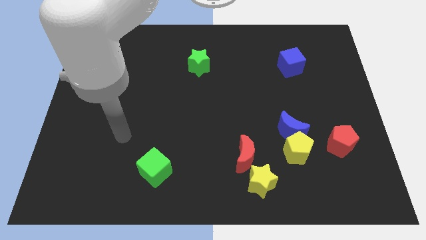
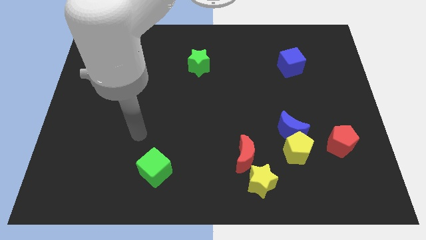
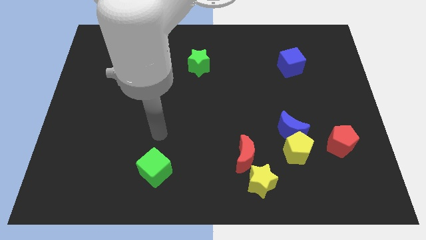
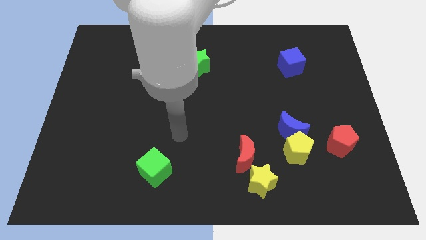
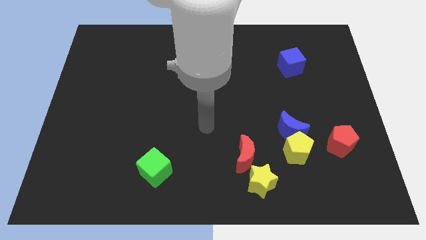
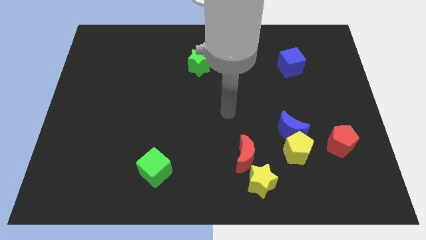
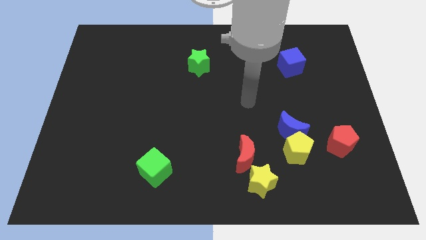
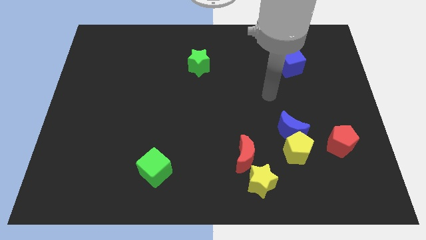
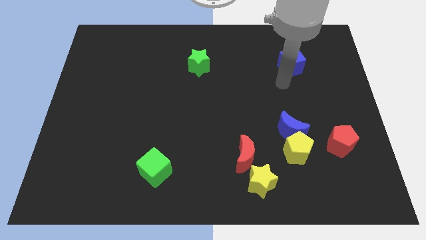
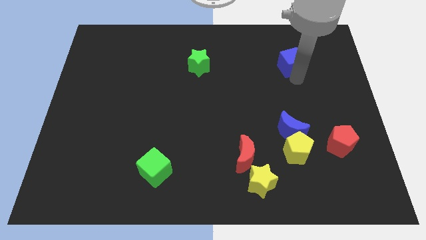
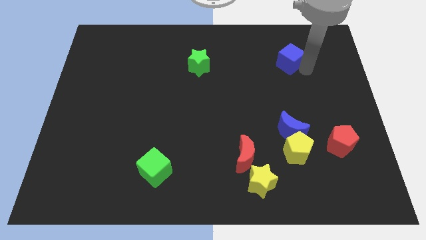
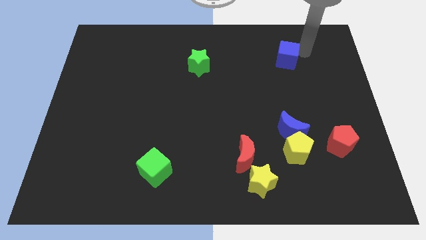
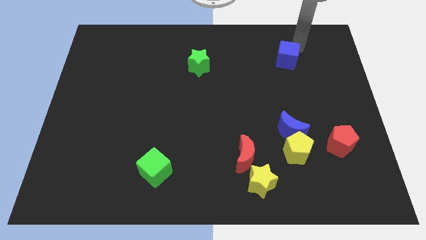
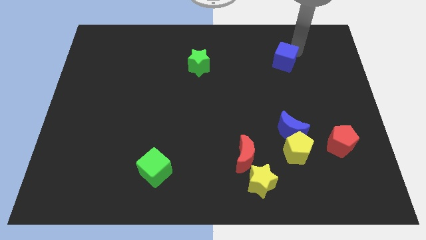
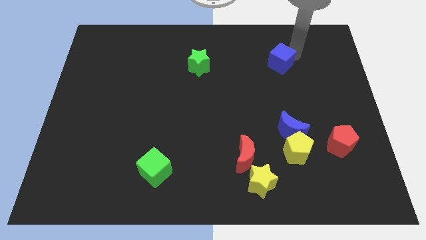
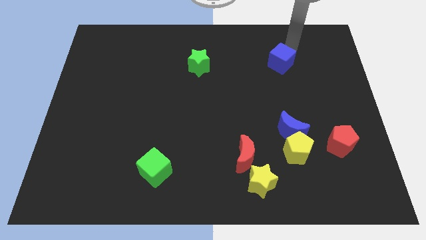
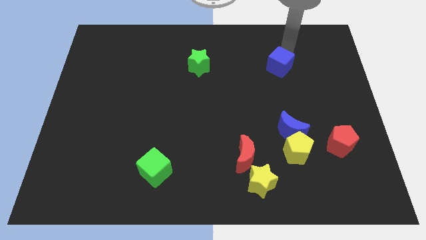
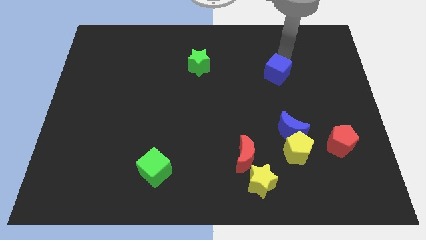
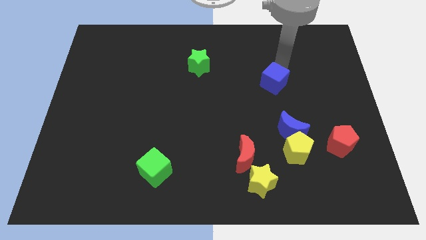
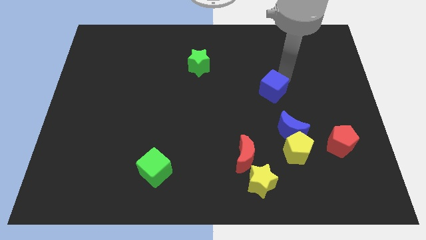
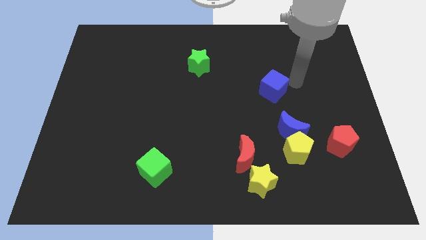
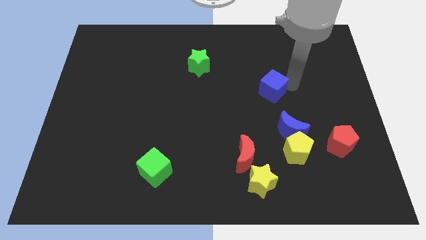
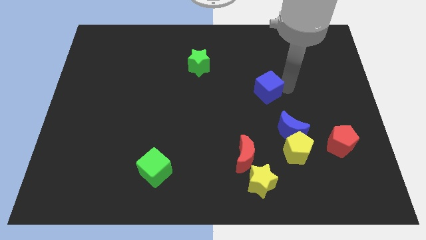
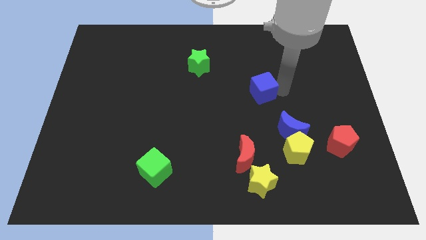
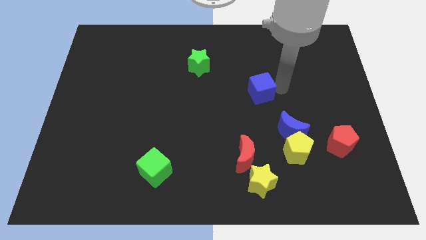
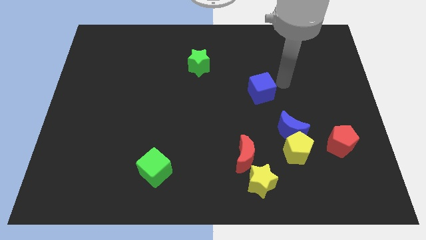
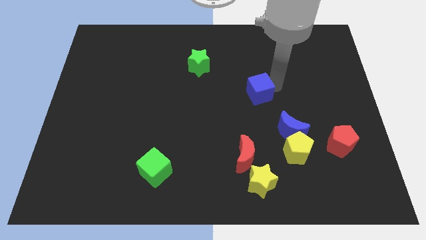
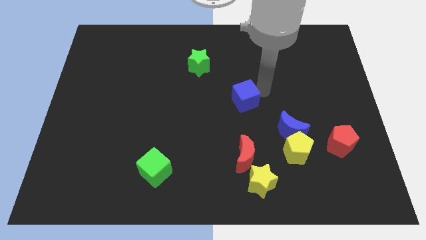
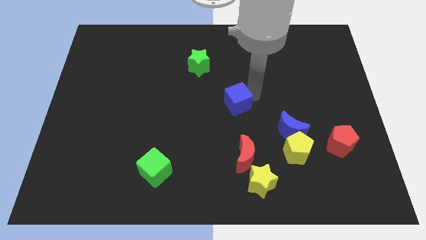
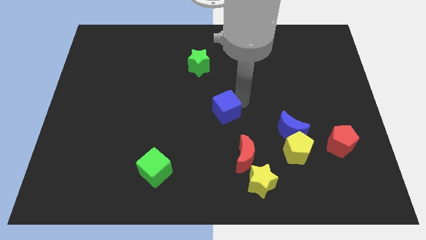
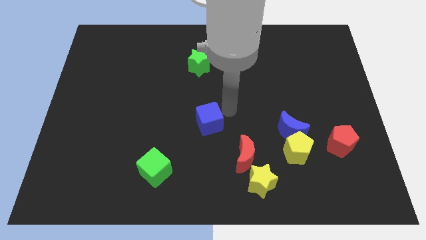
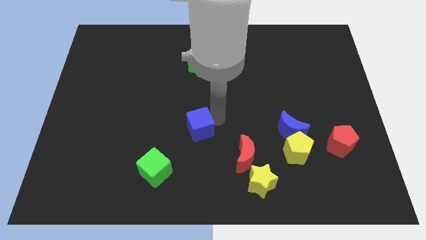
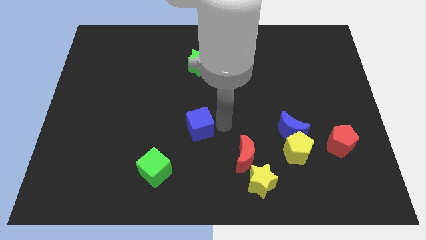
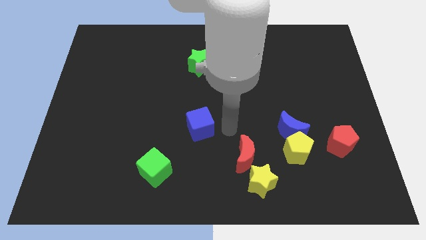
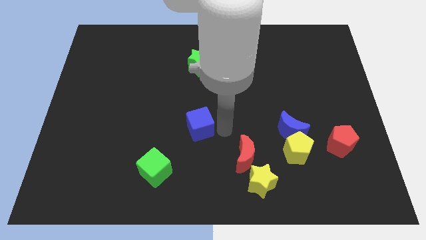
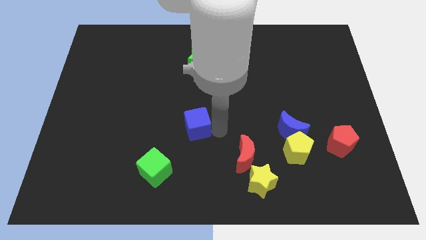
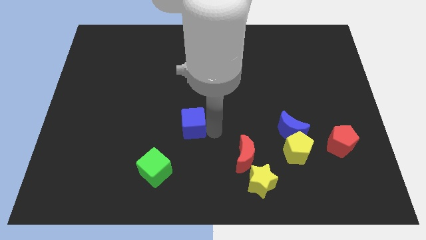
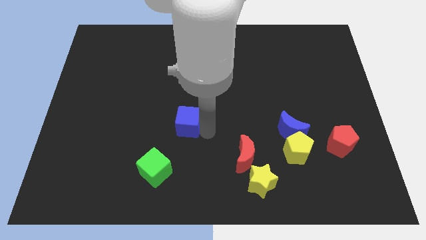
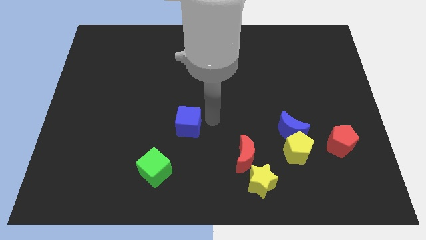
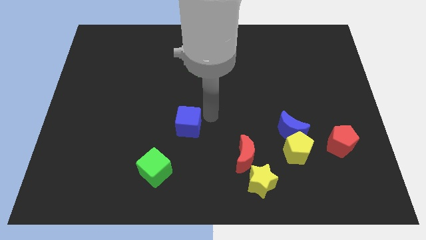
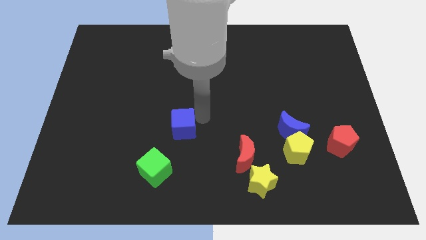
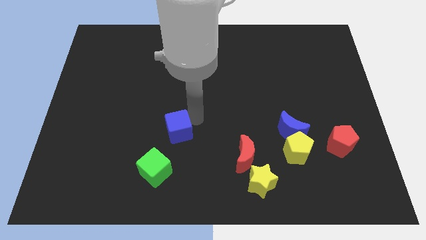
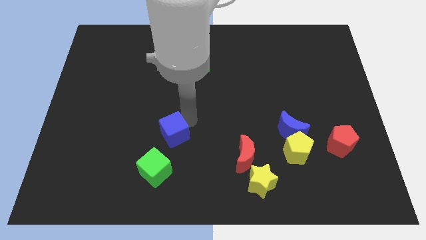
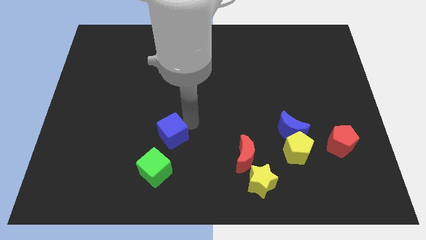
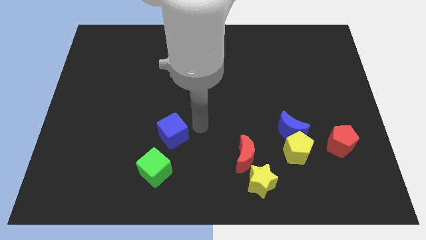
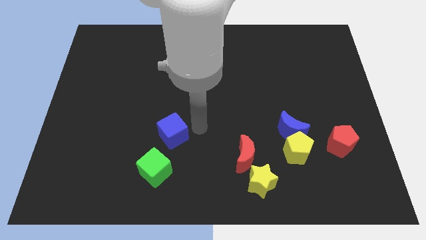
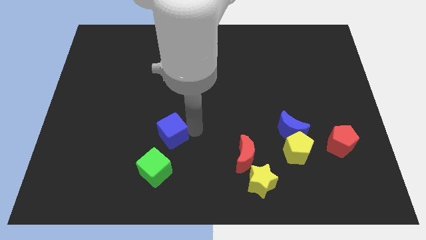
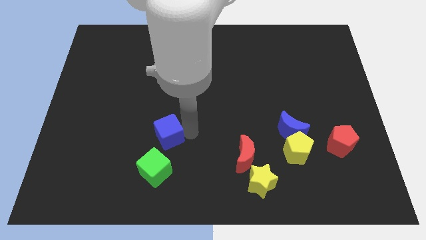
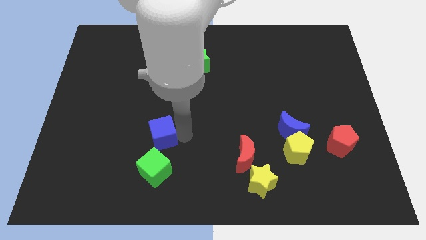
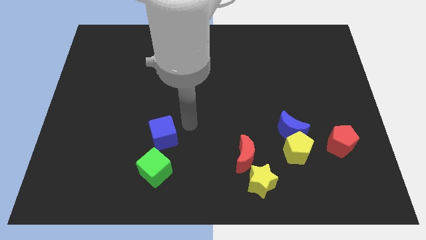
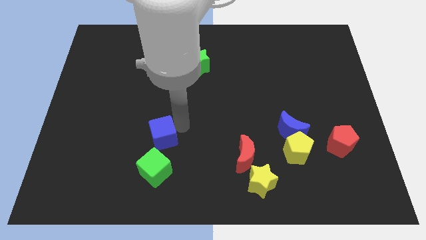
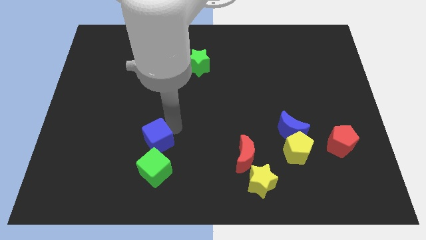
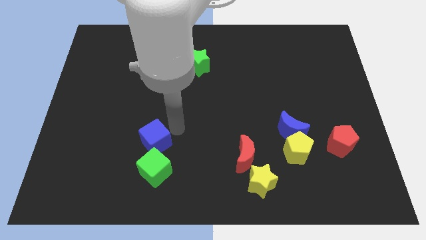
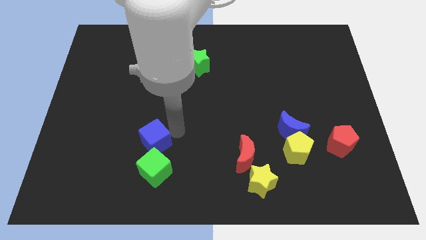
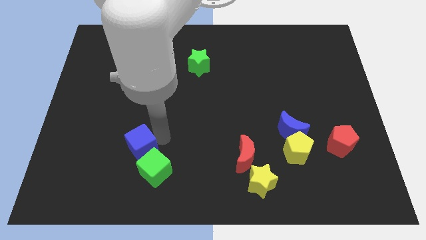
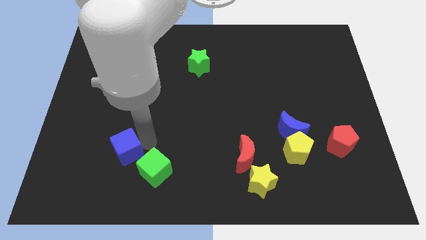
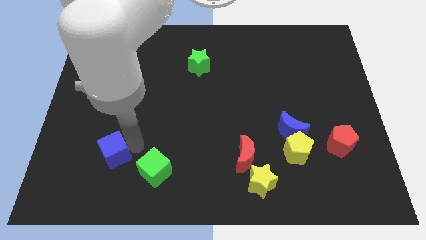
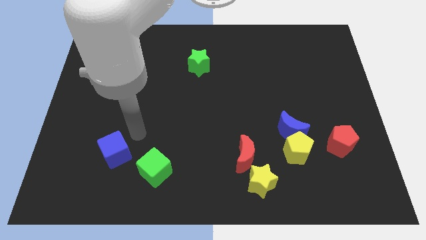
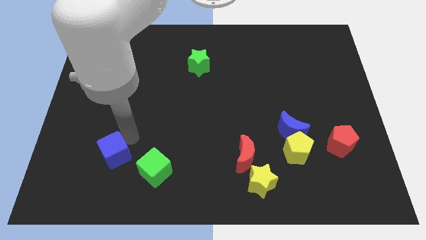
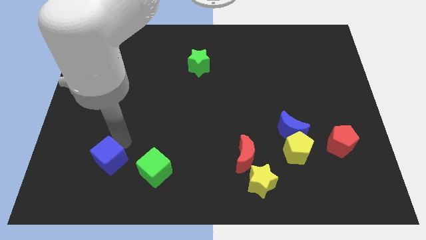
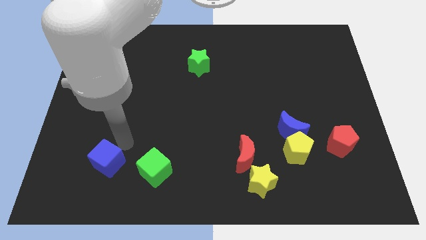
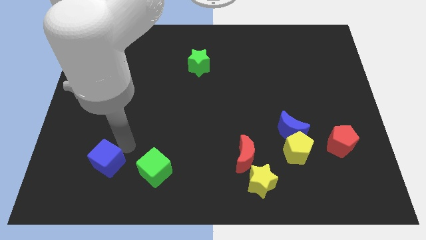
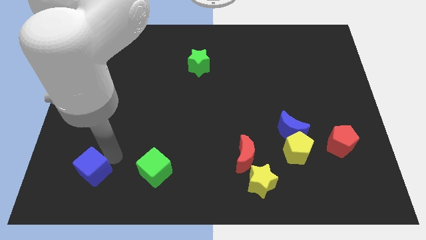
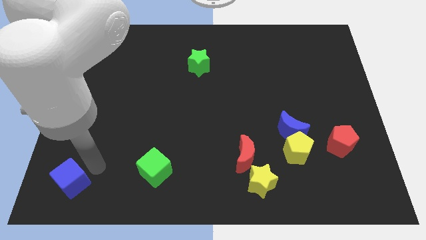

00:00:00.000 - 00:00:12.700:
put the blue cube to the lower left corner

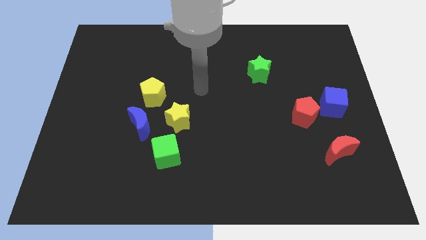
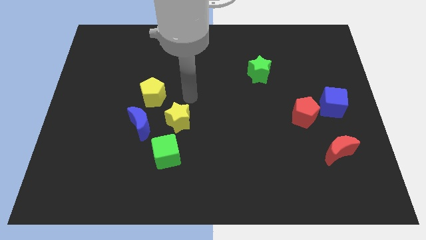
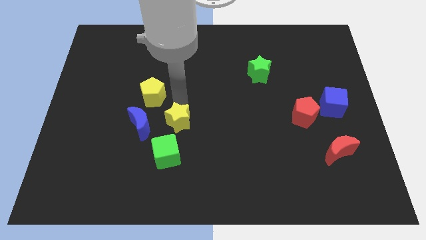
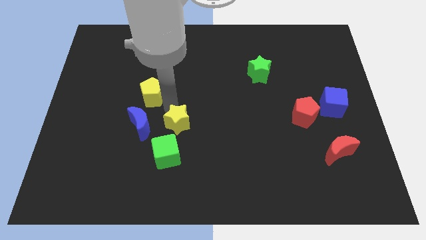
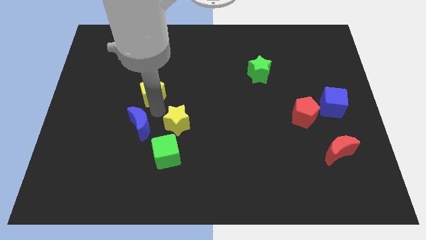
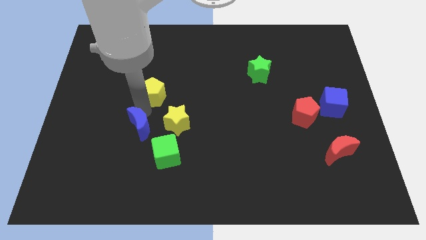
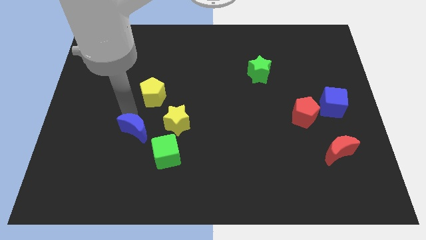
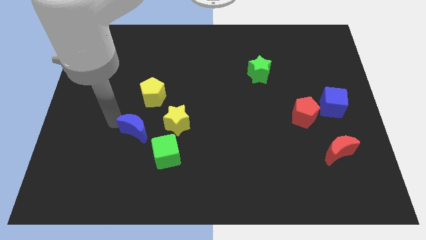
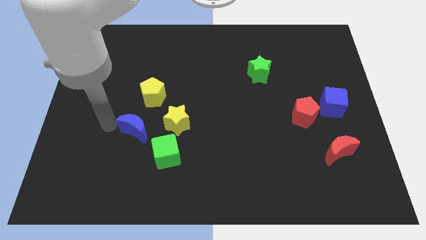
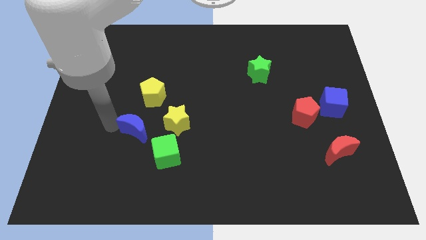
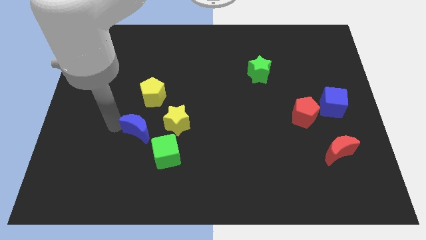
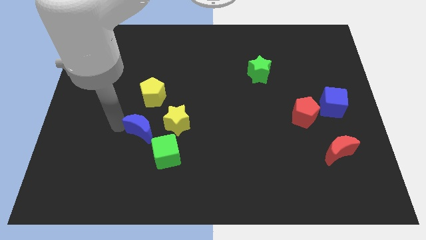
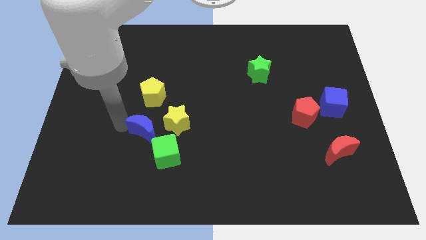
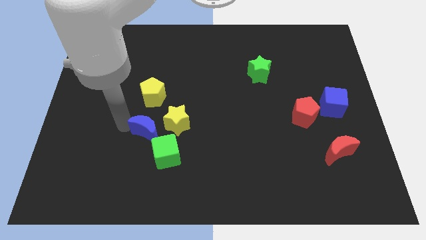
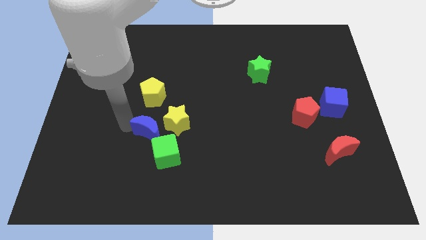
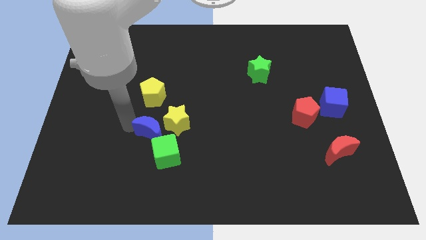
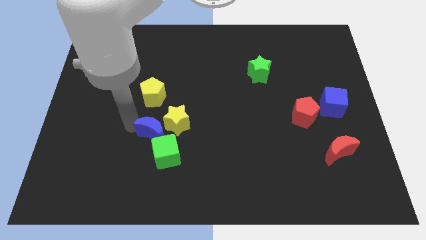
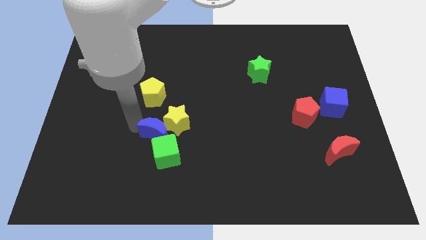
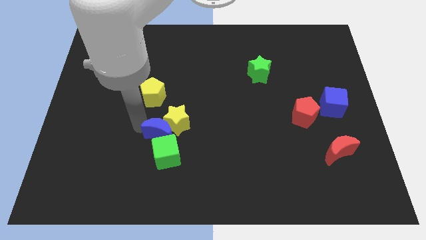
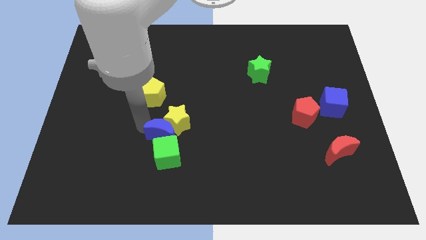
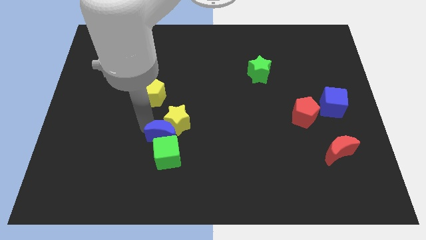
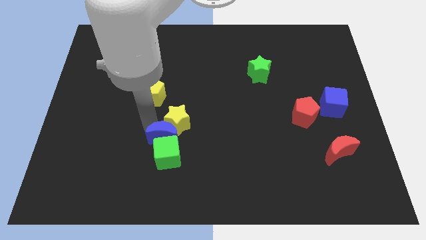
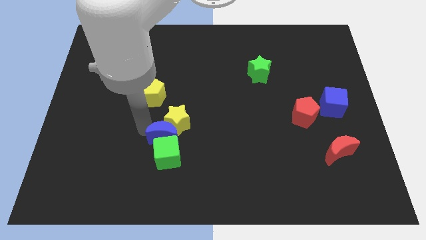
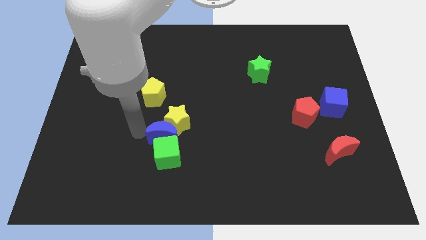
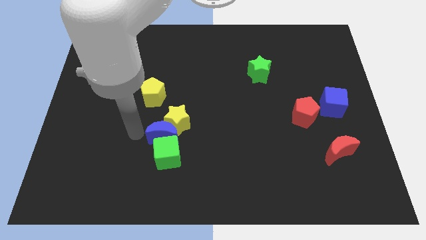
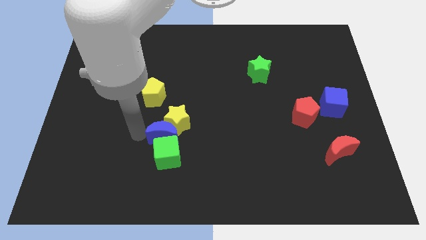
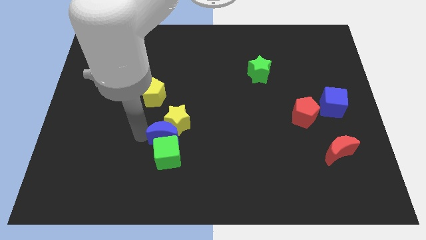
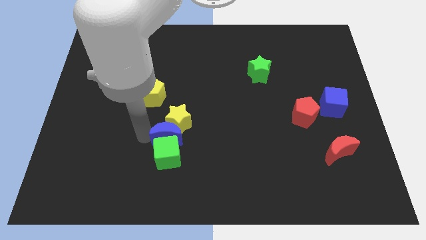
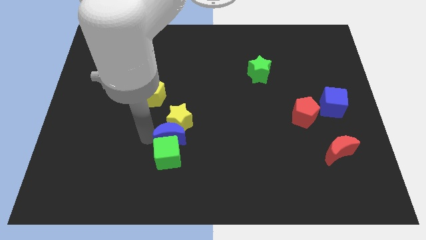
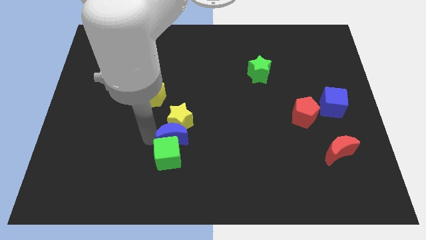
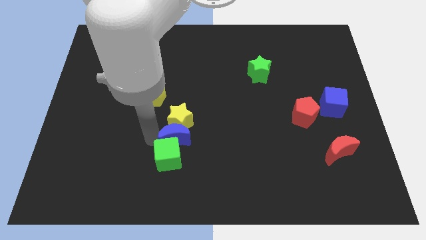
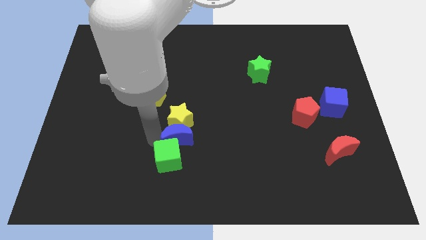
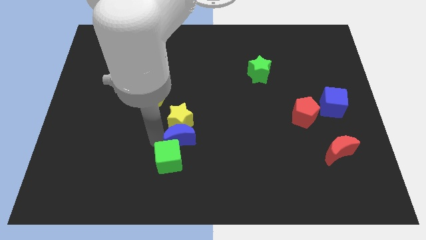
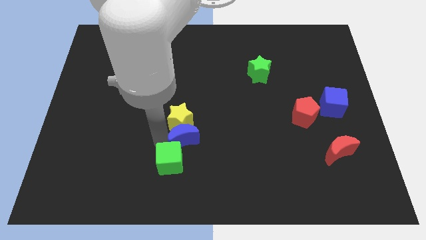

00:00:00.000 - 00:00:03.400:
push the blue moon to the center of the board
